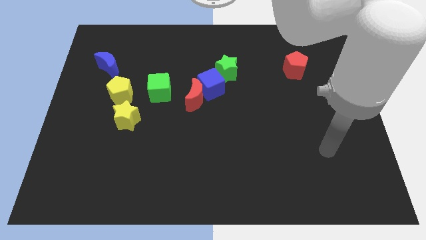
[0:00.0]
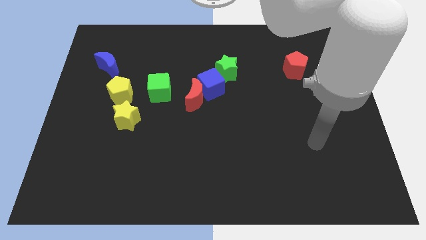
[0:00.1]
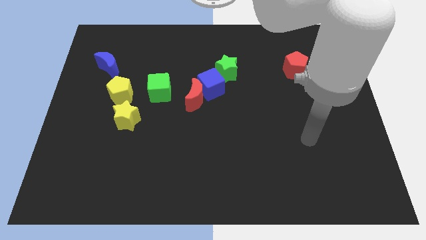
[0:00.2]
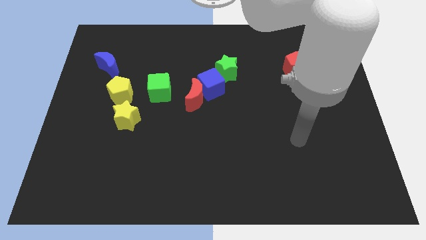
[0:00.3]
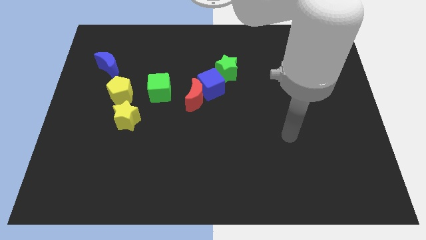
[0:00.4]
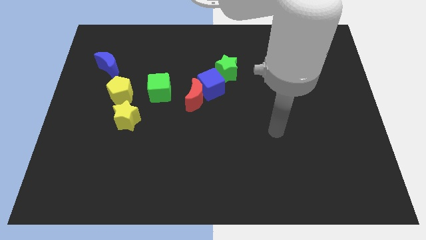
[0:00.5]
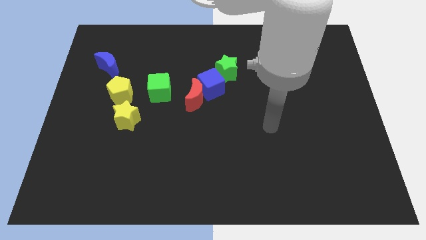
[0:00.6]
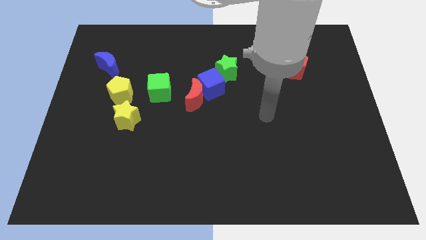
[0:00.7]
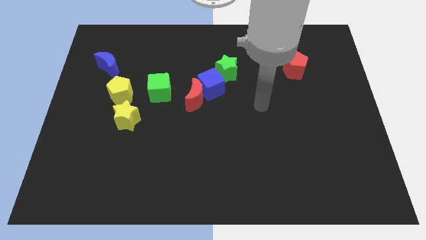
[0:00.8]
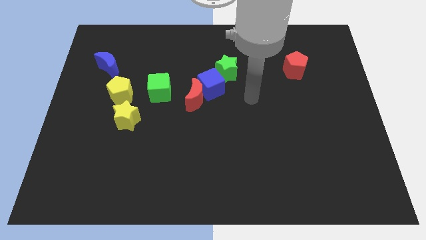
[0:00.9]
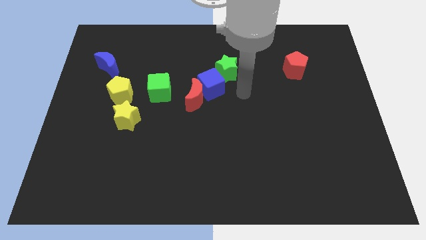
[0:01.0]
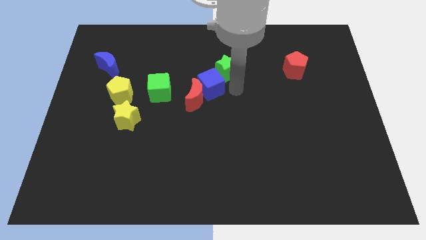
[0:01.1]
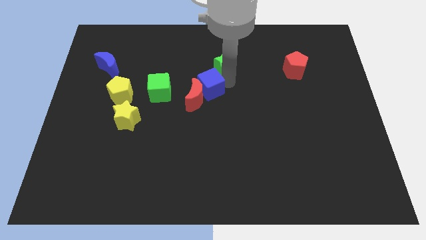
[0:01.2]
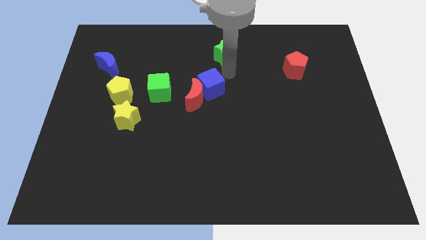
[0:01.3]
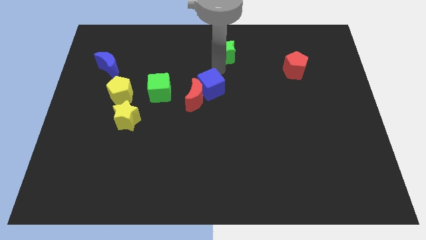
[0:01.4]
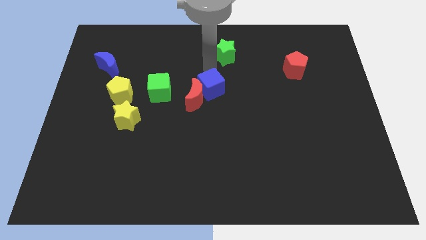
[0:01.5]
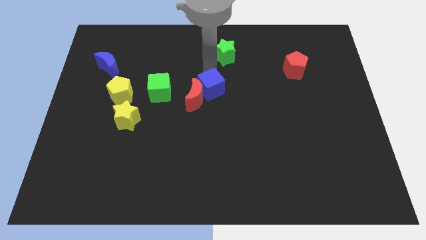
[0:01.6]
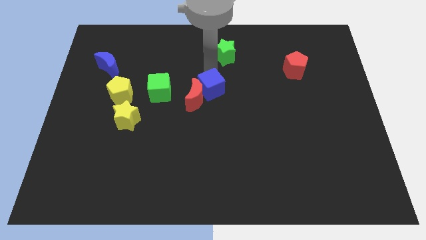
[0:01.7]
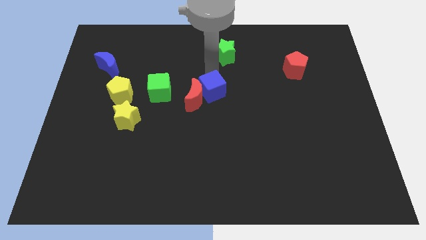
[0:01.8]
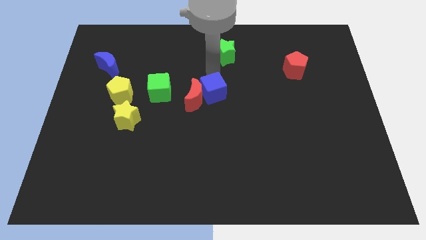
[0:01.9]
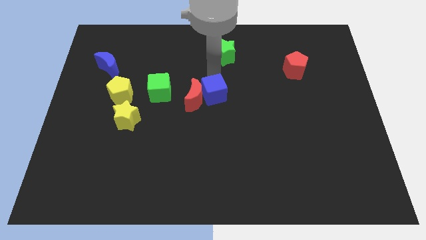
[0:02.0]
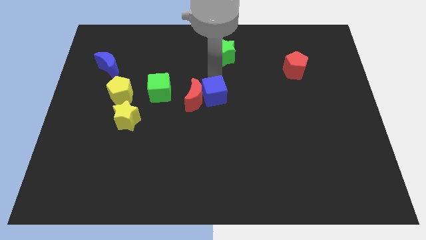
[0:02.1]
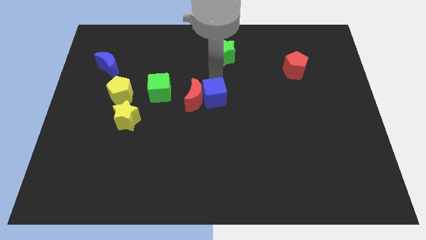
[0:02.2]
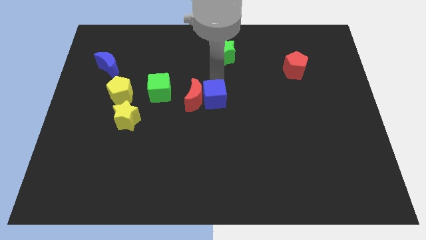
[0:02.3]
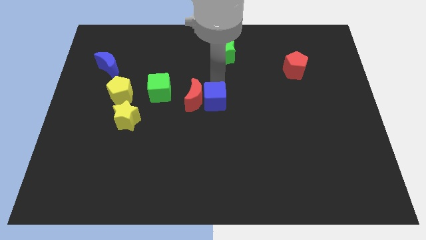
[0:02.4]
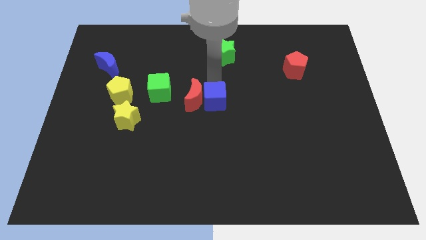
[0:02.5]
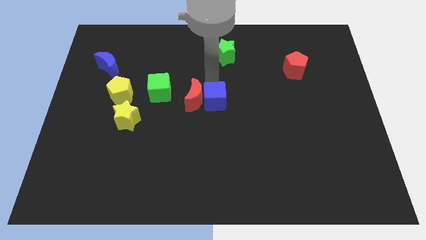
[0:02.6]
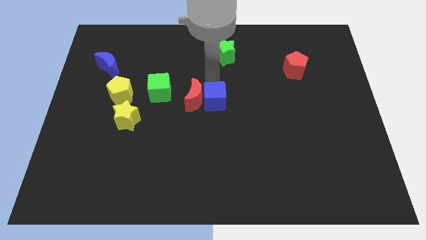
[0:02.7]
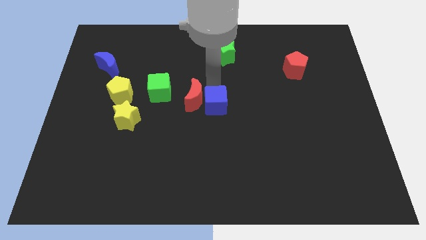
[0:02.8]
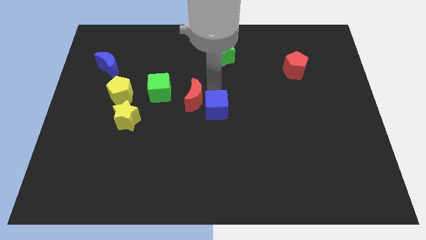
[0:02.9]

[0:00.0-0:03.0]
separate the blue cube from the red moon and green star

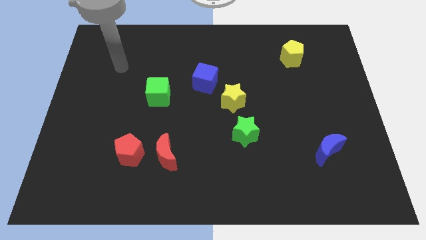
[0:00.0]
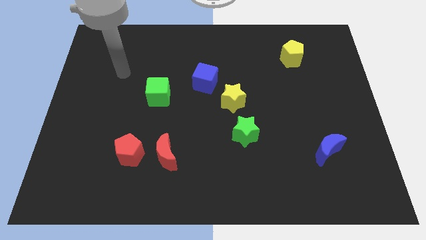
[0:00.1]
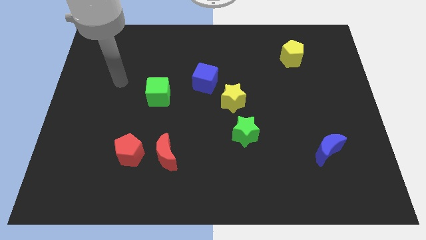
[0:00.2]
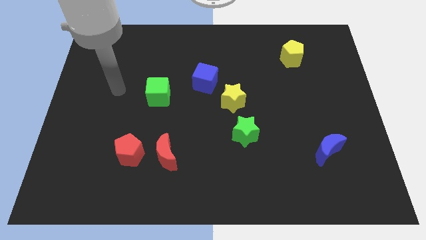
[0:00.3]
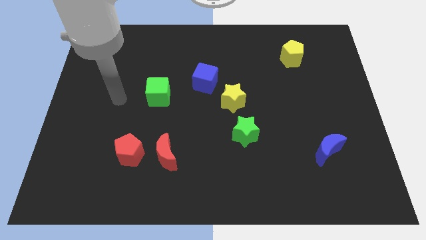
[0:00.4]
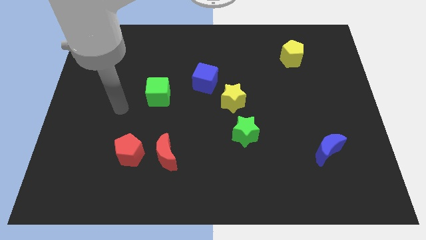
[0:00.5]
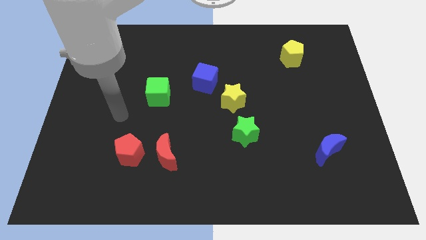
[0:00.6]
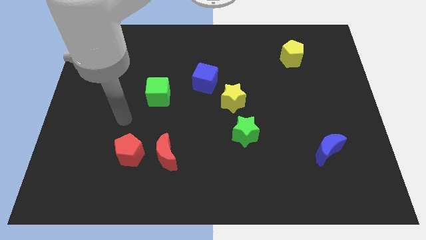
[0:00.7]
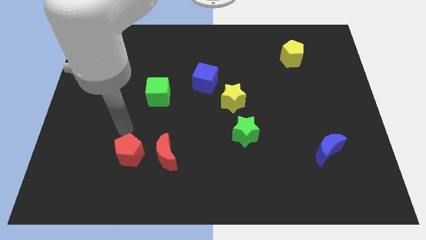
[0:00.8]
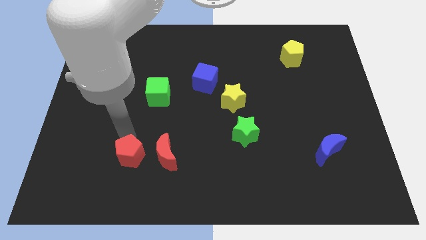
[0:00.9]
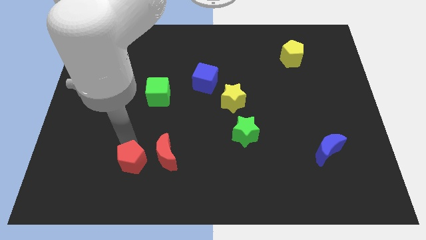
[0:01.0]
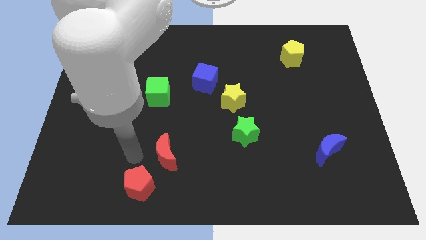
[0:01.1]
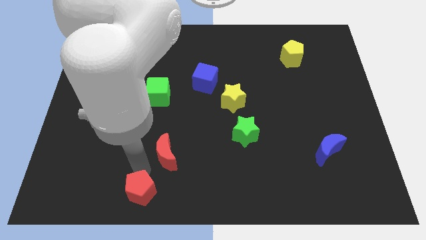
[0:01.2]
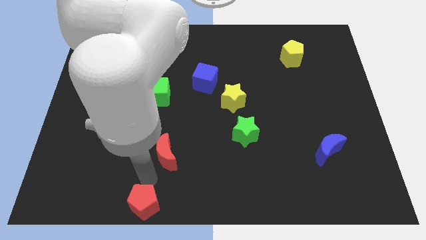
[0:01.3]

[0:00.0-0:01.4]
move the red moon away from the red pentagon

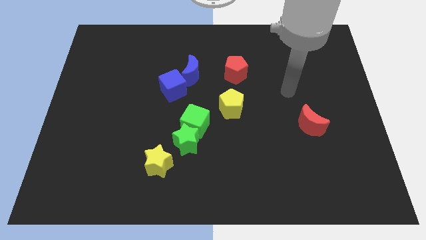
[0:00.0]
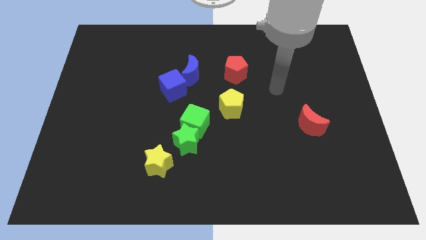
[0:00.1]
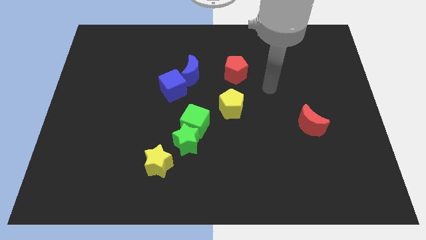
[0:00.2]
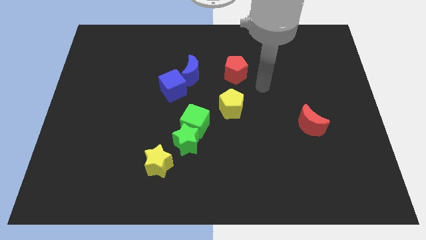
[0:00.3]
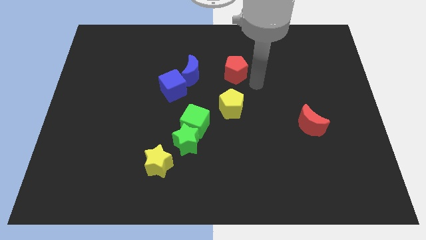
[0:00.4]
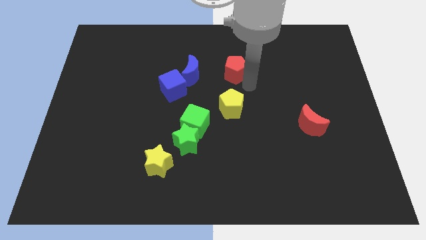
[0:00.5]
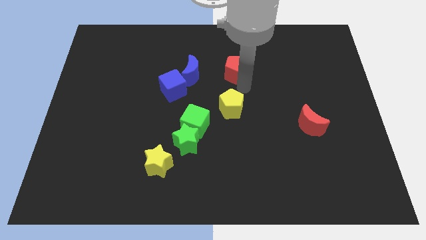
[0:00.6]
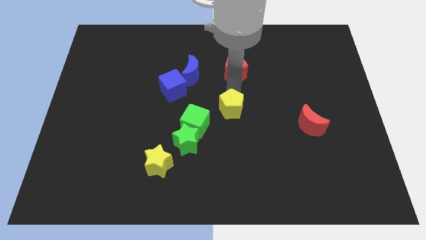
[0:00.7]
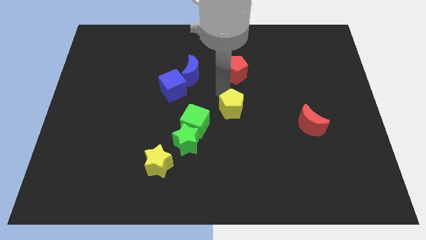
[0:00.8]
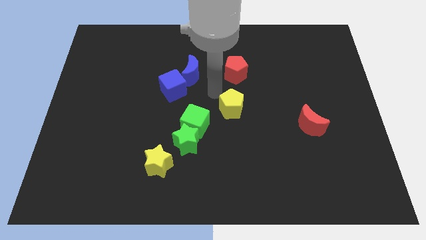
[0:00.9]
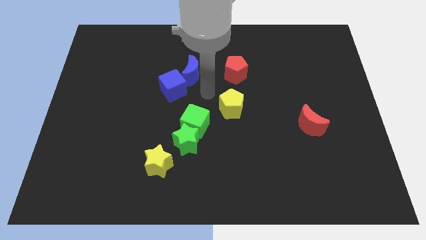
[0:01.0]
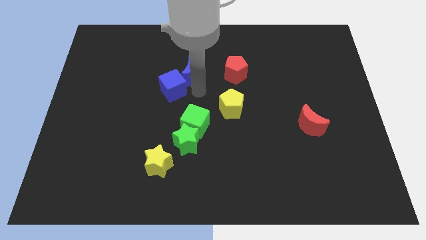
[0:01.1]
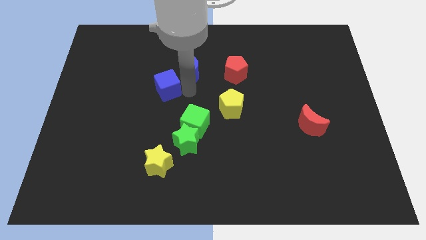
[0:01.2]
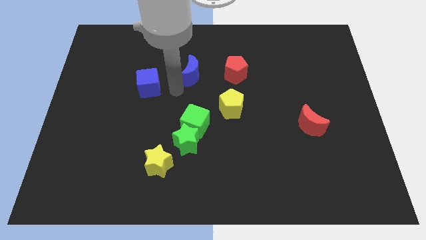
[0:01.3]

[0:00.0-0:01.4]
move the blue moon away from the blue cube

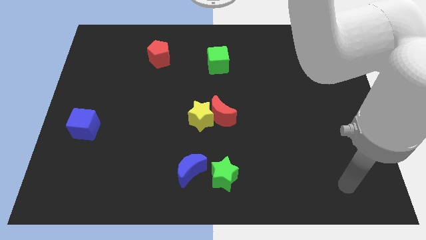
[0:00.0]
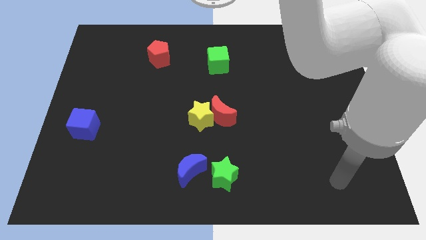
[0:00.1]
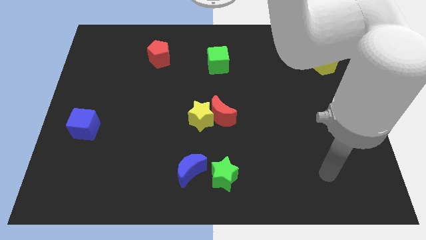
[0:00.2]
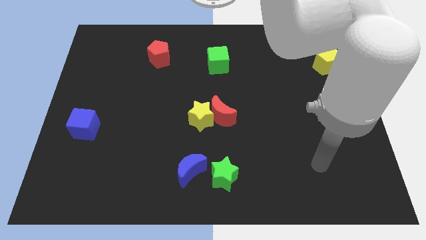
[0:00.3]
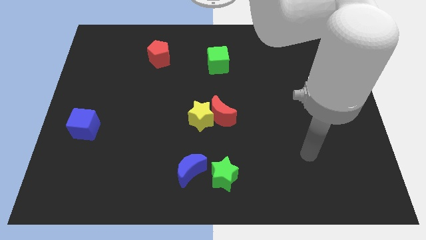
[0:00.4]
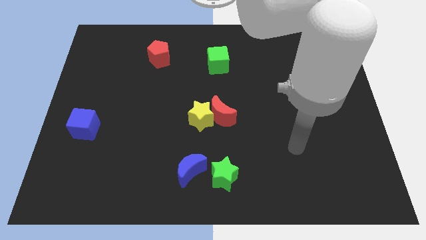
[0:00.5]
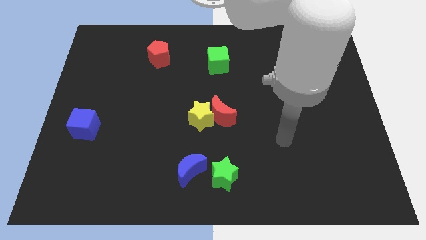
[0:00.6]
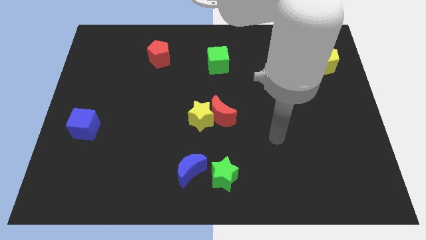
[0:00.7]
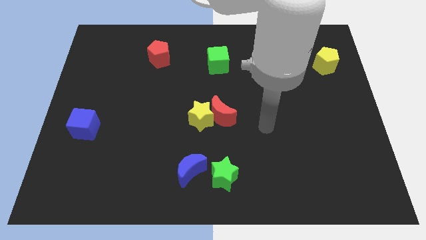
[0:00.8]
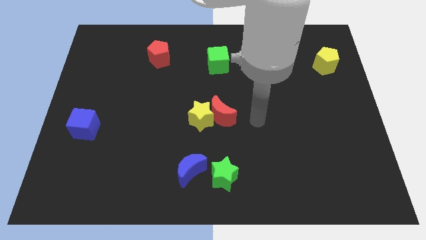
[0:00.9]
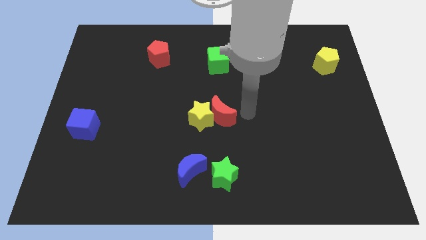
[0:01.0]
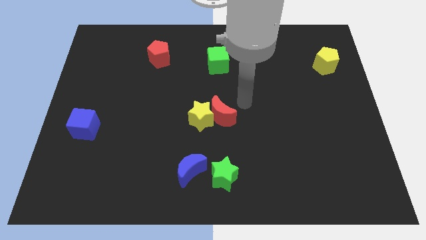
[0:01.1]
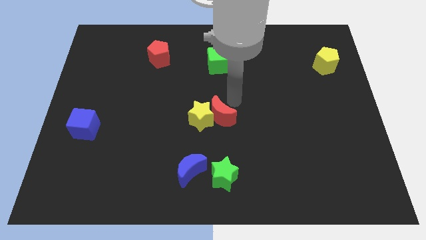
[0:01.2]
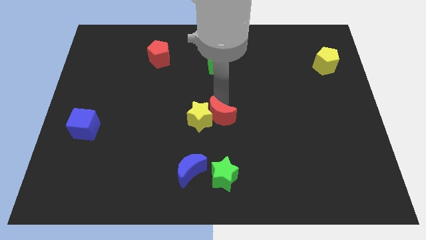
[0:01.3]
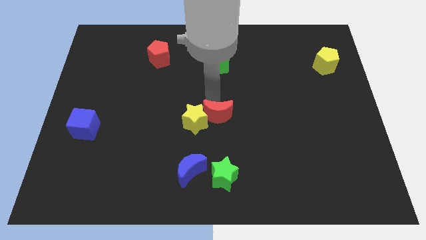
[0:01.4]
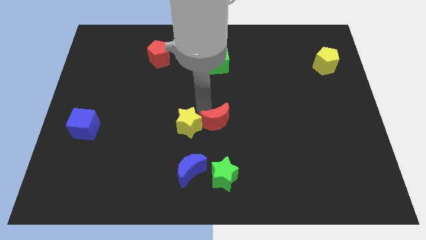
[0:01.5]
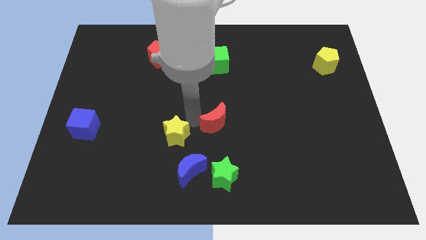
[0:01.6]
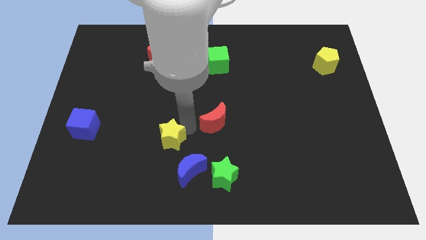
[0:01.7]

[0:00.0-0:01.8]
move the red moon away from the yellow star

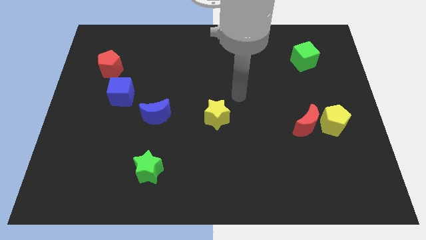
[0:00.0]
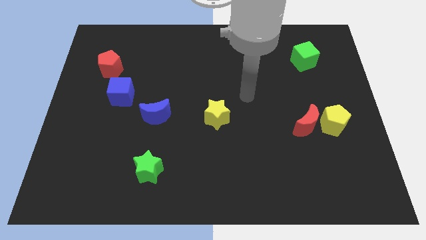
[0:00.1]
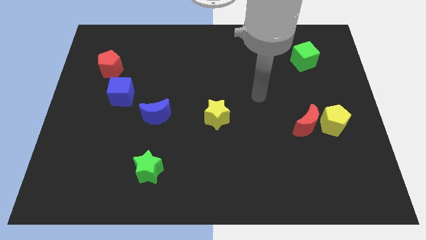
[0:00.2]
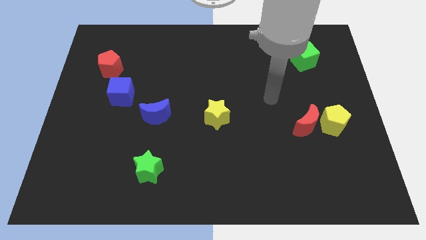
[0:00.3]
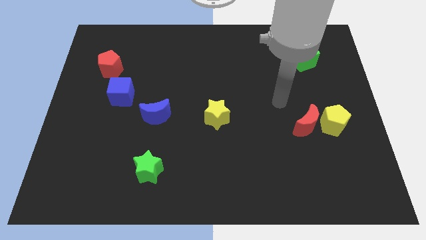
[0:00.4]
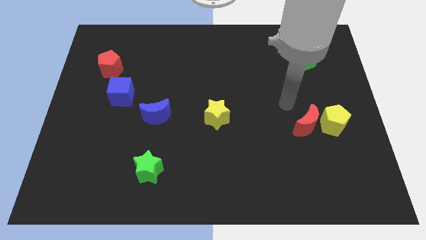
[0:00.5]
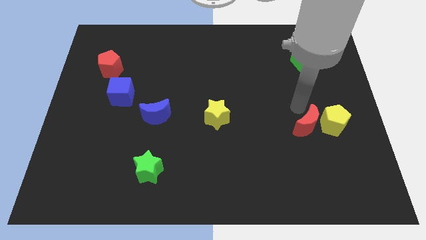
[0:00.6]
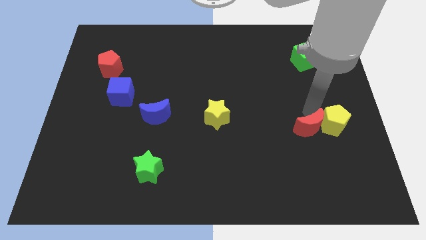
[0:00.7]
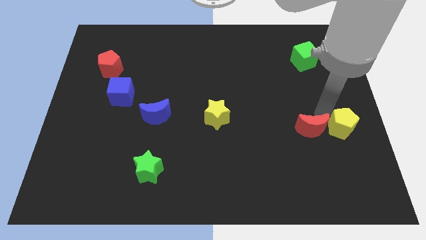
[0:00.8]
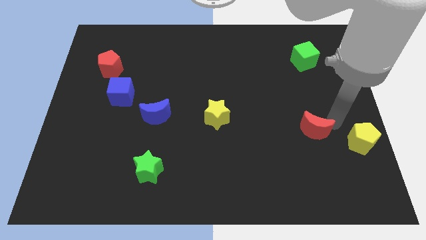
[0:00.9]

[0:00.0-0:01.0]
pull the red moon apart from the yellow pentagon

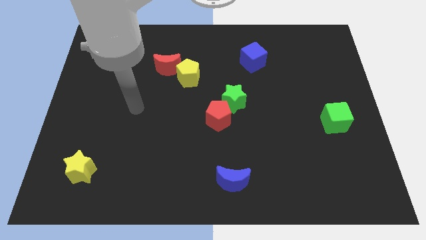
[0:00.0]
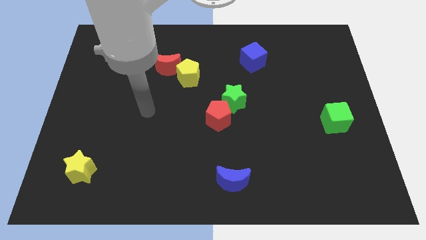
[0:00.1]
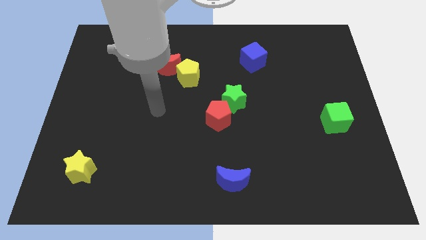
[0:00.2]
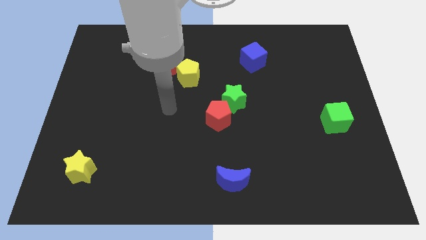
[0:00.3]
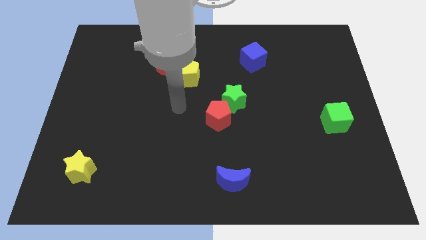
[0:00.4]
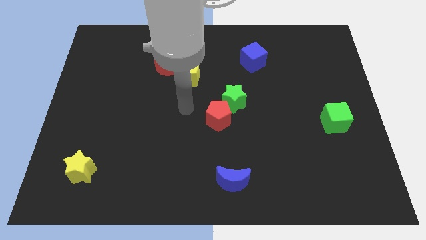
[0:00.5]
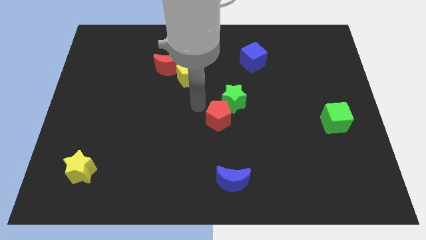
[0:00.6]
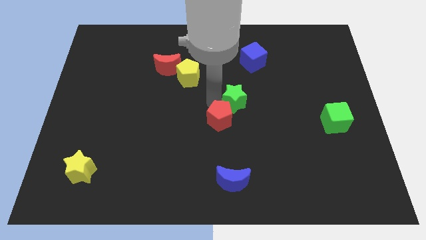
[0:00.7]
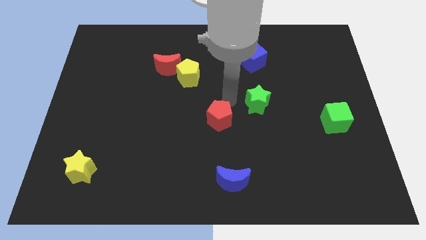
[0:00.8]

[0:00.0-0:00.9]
separate the red pentagon from the green star
